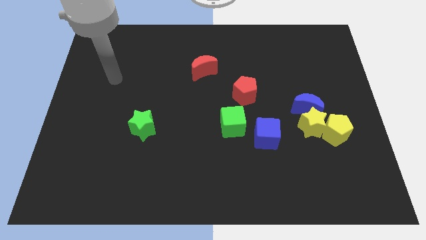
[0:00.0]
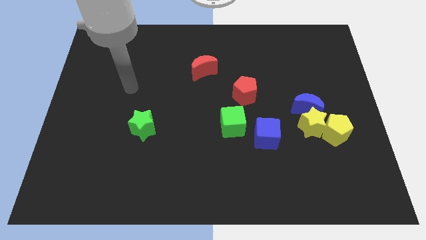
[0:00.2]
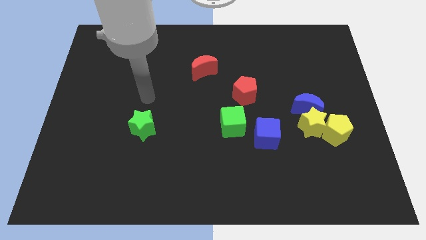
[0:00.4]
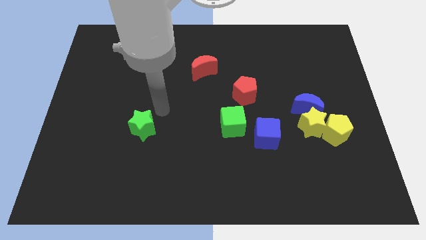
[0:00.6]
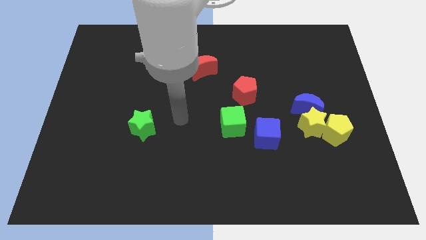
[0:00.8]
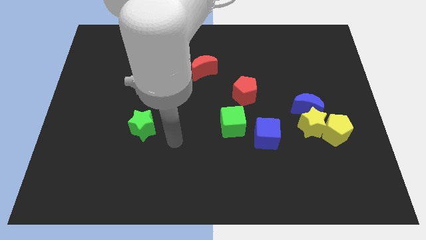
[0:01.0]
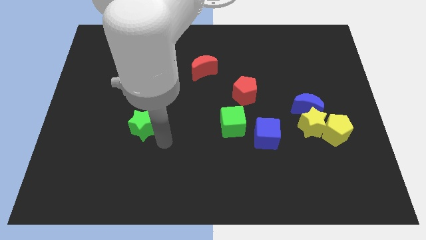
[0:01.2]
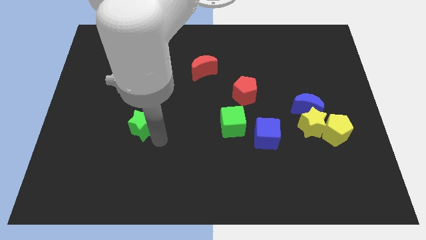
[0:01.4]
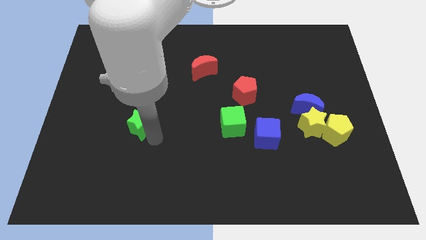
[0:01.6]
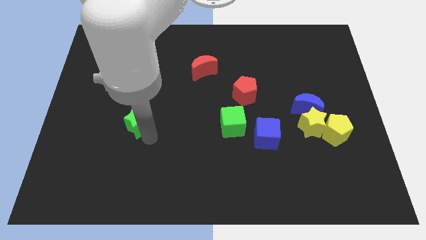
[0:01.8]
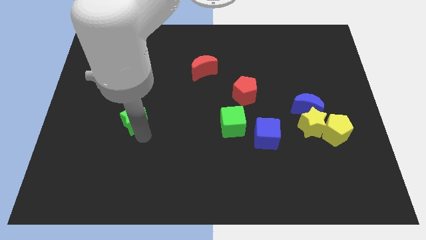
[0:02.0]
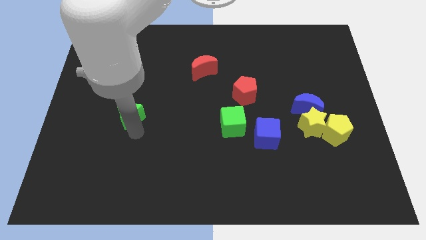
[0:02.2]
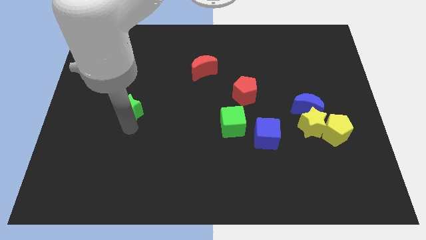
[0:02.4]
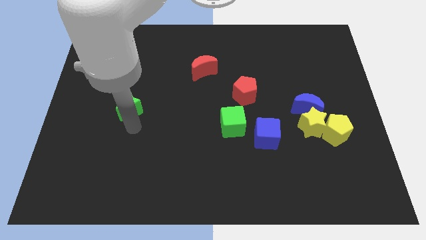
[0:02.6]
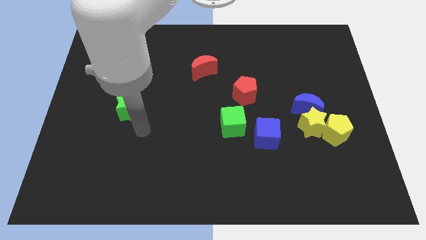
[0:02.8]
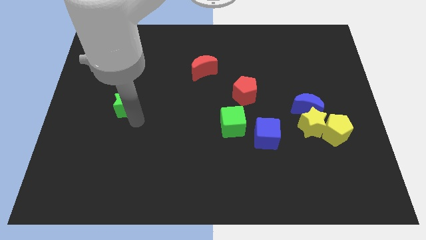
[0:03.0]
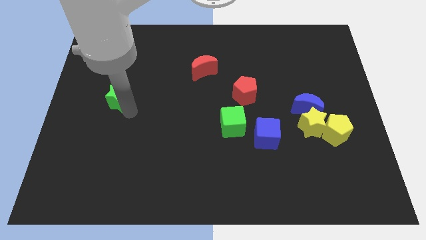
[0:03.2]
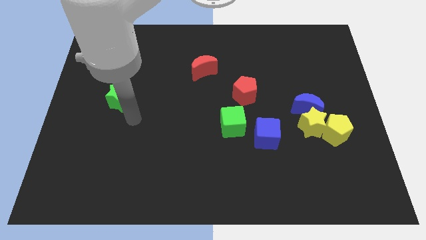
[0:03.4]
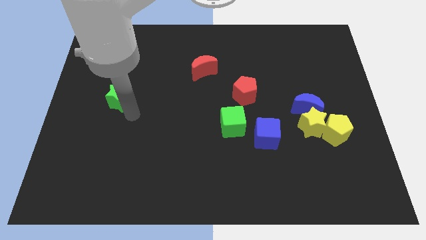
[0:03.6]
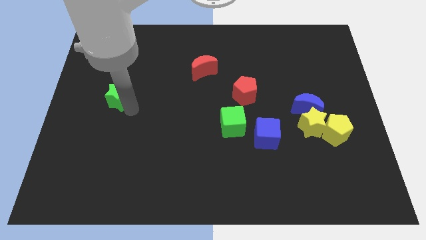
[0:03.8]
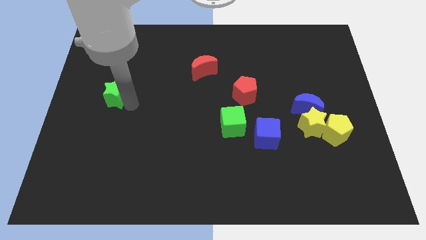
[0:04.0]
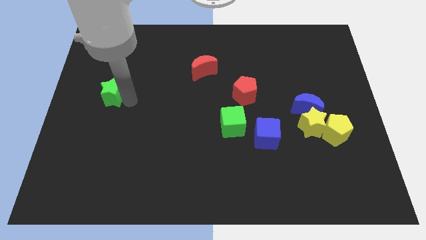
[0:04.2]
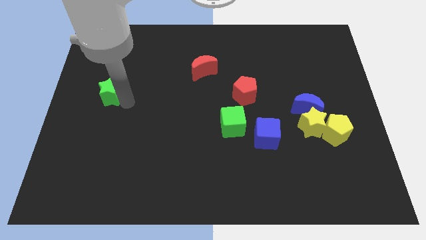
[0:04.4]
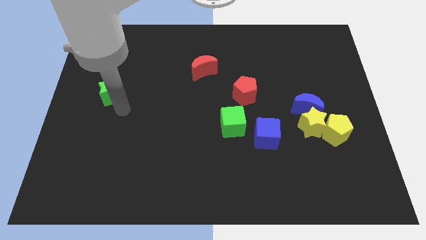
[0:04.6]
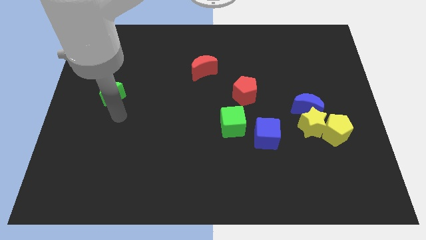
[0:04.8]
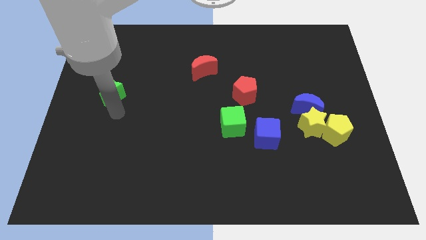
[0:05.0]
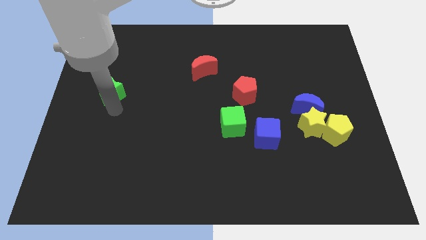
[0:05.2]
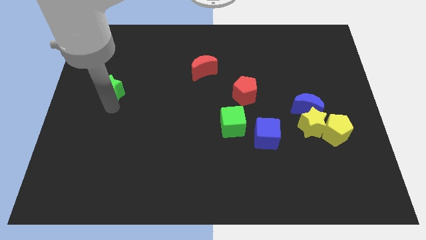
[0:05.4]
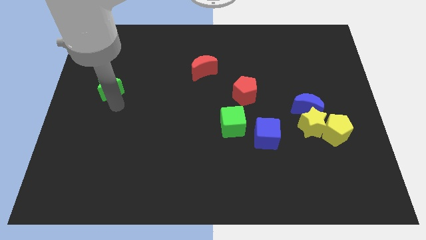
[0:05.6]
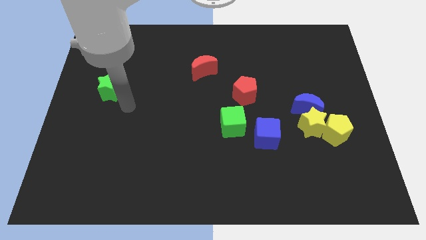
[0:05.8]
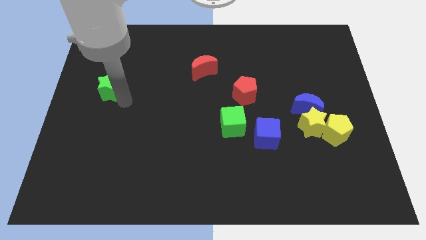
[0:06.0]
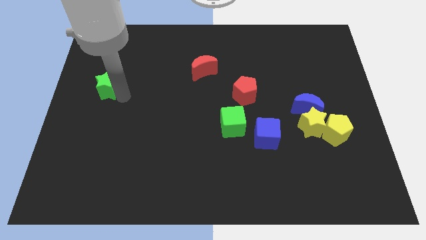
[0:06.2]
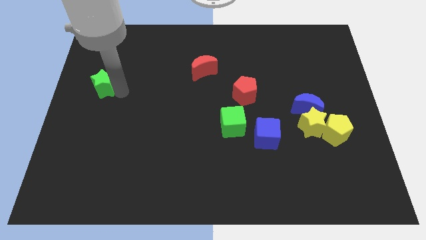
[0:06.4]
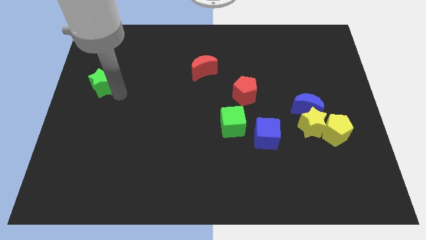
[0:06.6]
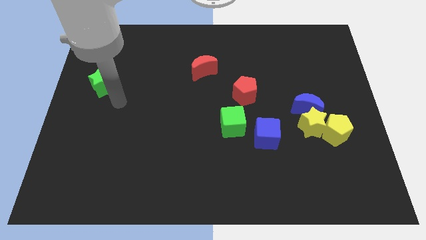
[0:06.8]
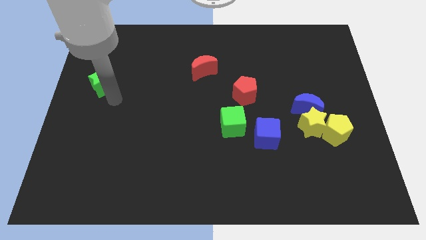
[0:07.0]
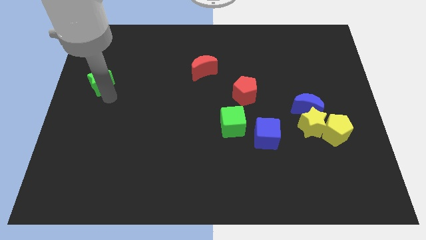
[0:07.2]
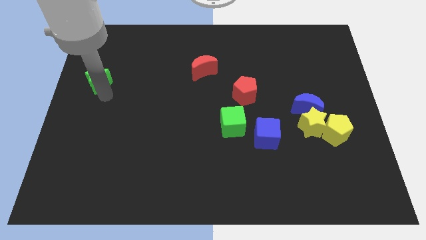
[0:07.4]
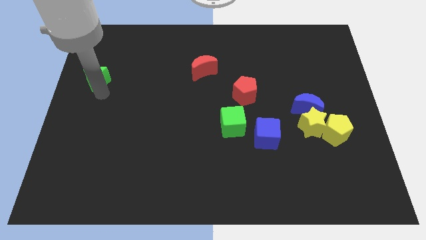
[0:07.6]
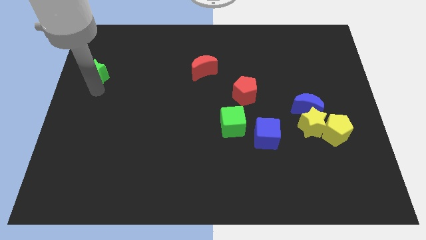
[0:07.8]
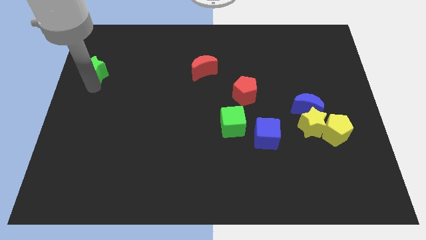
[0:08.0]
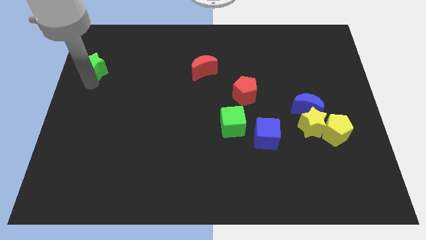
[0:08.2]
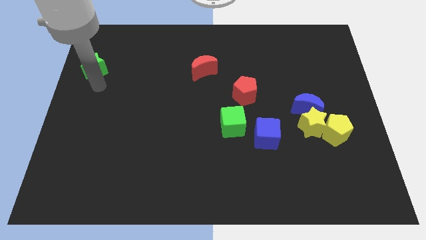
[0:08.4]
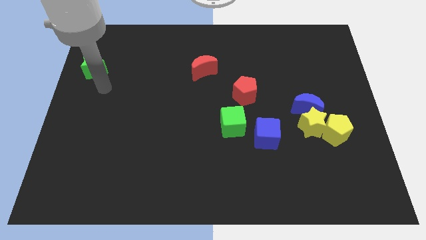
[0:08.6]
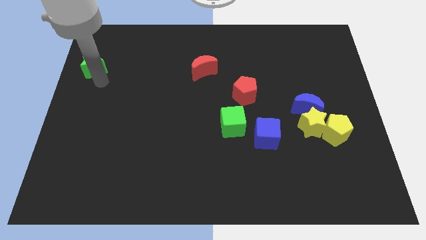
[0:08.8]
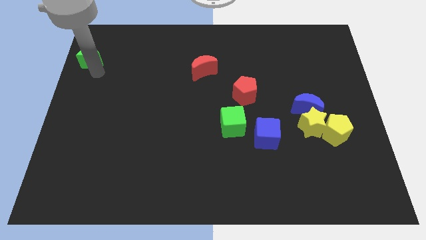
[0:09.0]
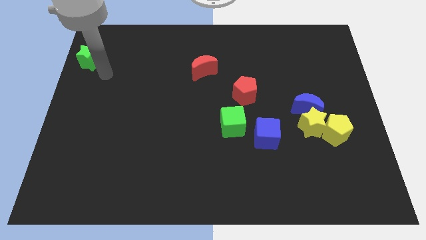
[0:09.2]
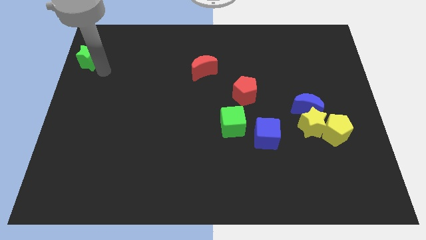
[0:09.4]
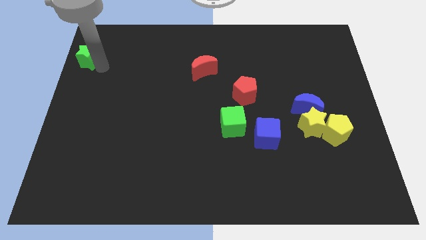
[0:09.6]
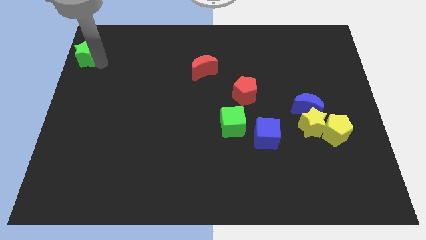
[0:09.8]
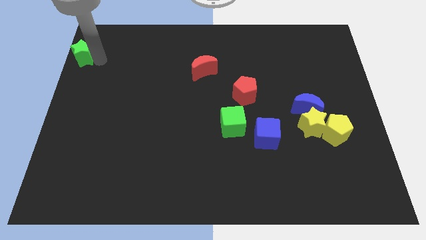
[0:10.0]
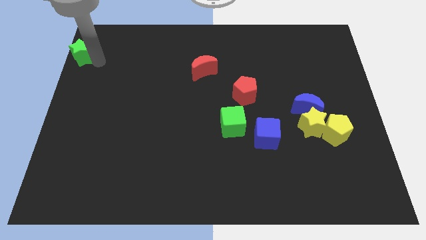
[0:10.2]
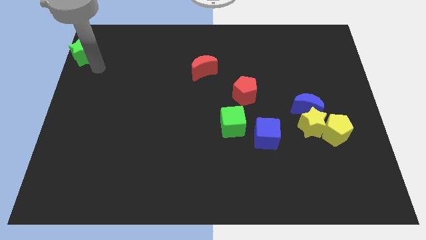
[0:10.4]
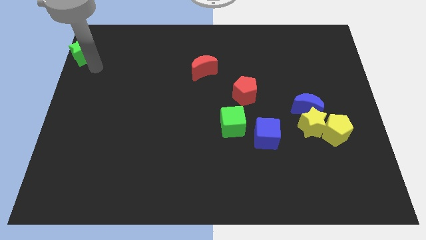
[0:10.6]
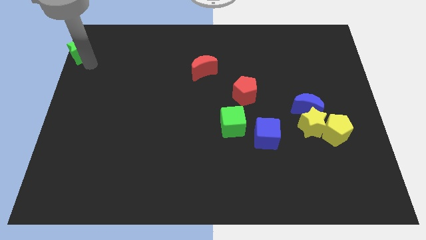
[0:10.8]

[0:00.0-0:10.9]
move the green star to the top left

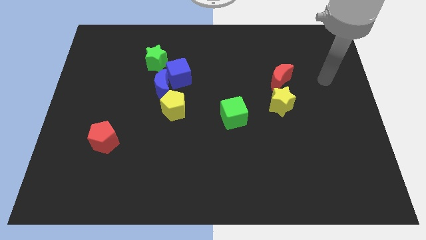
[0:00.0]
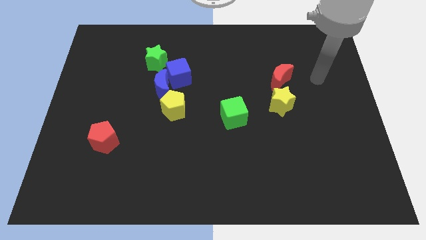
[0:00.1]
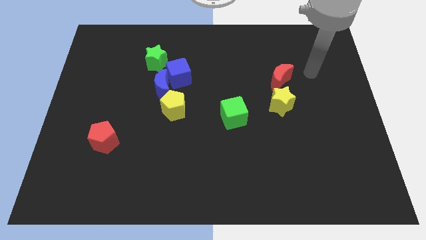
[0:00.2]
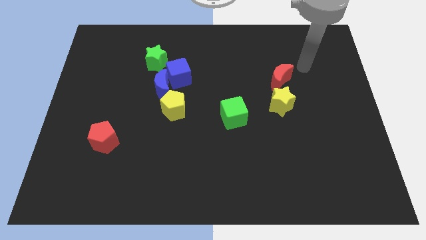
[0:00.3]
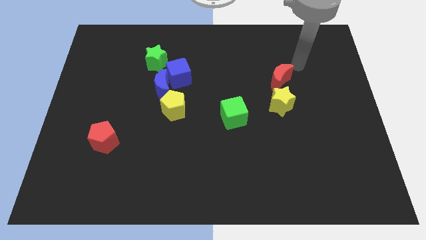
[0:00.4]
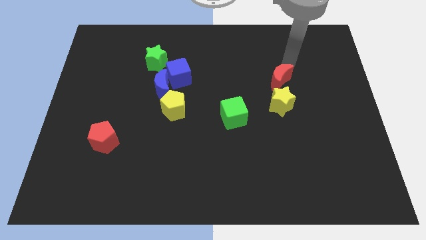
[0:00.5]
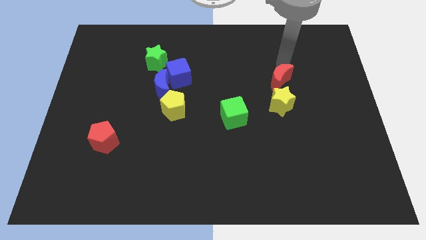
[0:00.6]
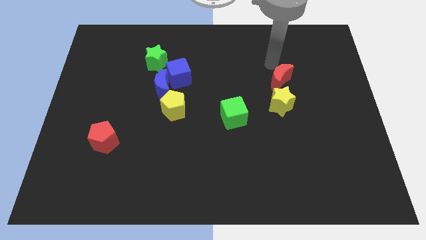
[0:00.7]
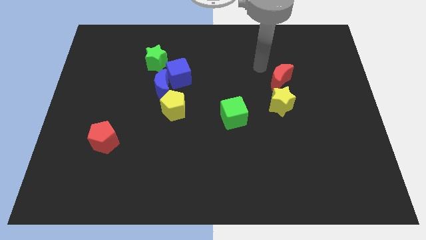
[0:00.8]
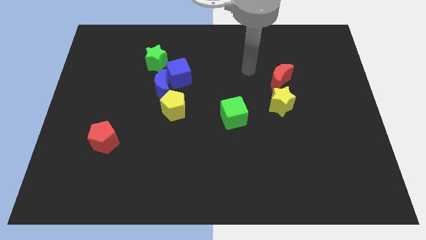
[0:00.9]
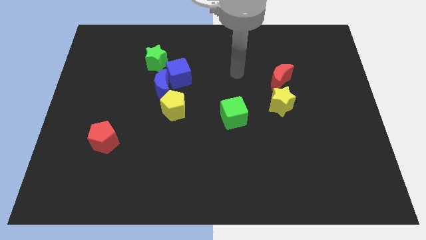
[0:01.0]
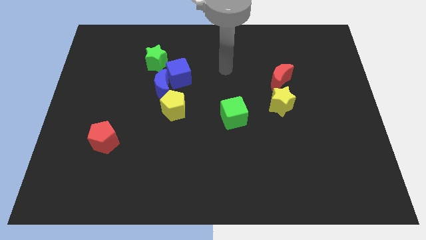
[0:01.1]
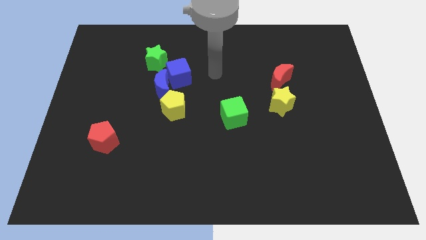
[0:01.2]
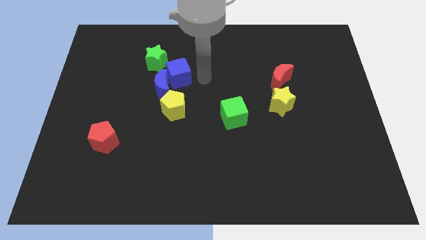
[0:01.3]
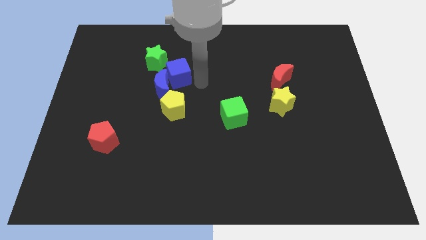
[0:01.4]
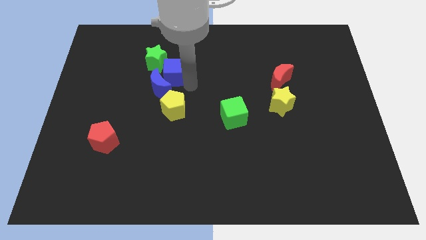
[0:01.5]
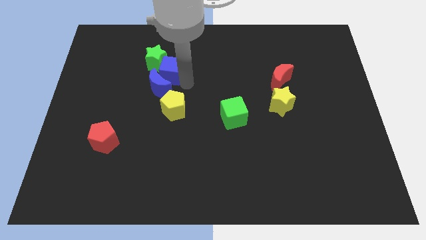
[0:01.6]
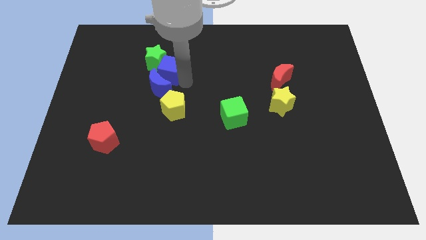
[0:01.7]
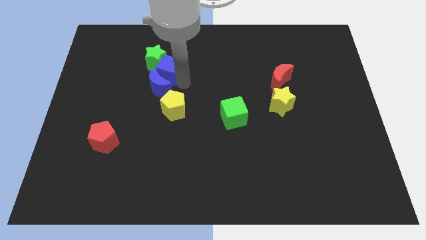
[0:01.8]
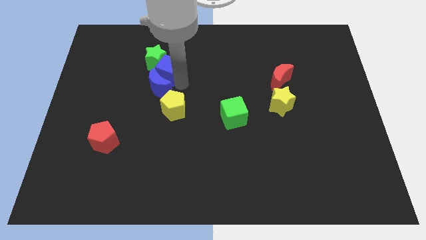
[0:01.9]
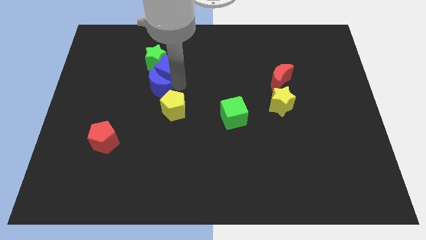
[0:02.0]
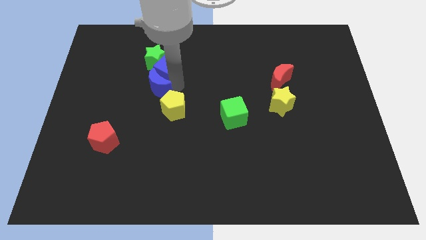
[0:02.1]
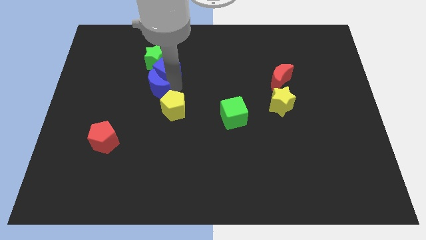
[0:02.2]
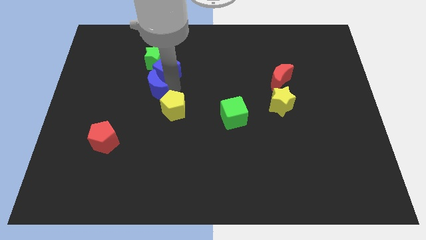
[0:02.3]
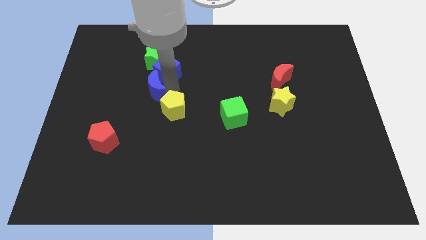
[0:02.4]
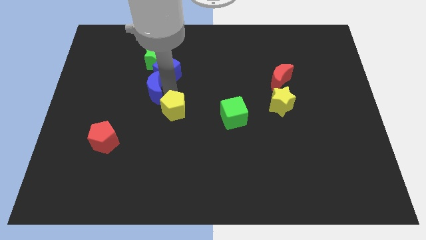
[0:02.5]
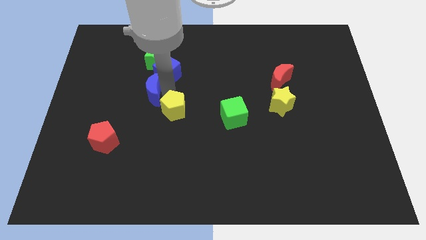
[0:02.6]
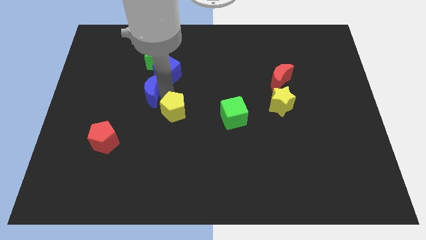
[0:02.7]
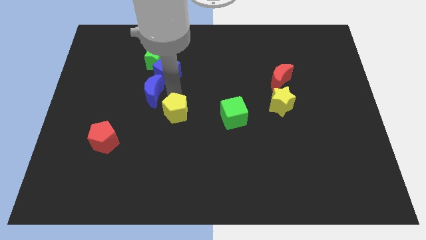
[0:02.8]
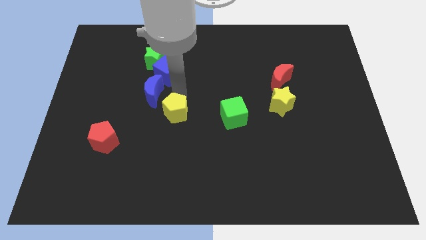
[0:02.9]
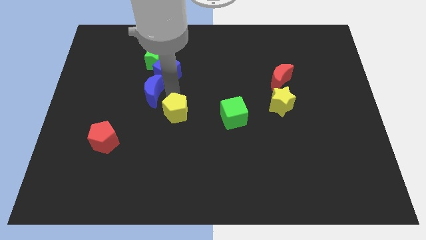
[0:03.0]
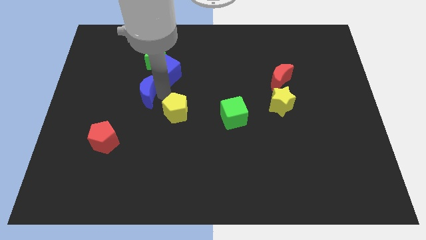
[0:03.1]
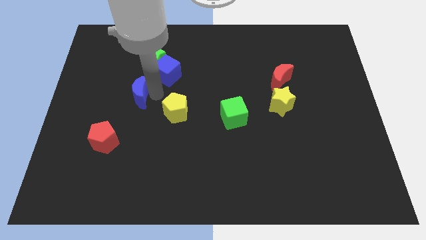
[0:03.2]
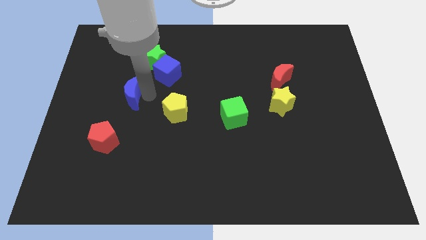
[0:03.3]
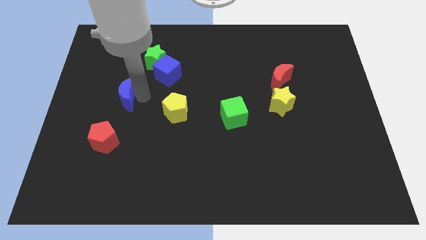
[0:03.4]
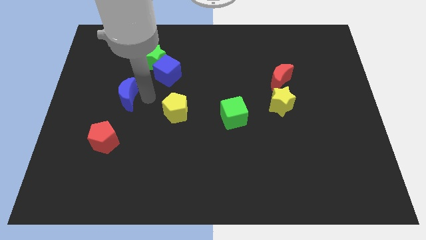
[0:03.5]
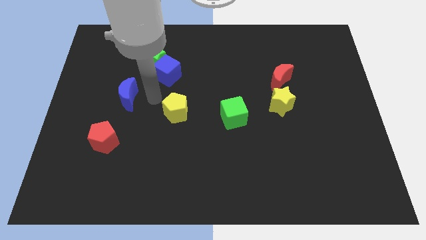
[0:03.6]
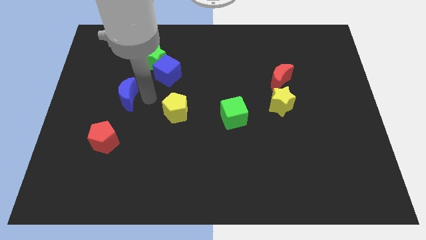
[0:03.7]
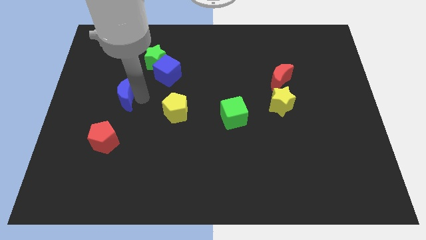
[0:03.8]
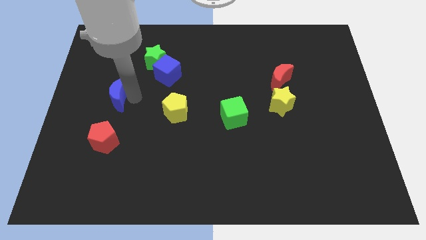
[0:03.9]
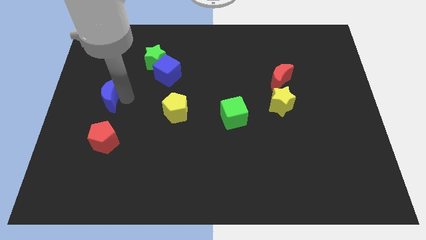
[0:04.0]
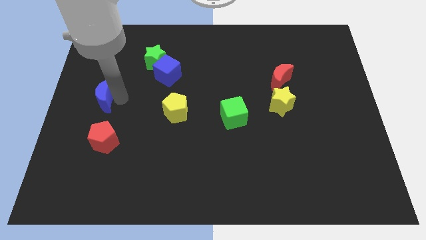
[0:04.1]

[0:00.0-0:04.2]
put the blue moon to the center left
